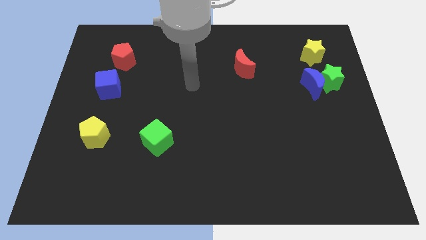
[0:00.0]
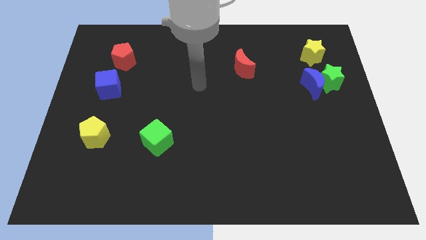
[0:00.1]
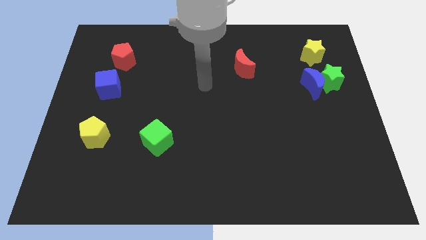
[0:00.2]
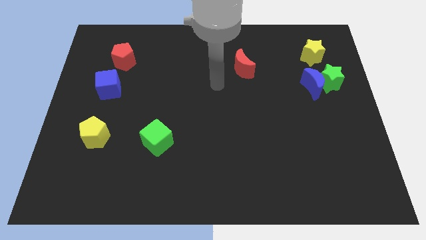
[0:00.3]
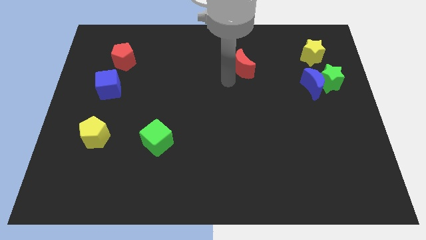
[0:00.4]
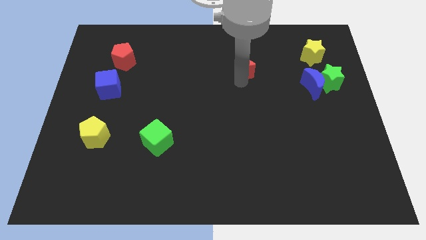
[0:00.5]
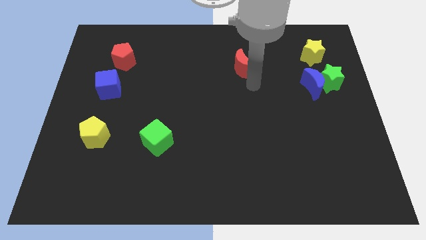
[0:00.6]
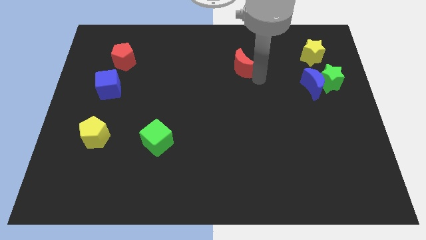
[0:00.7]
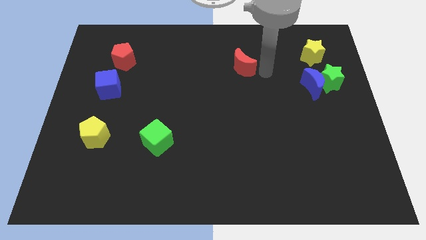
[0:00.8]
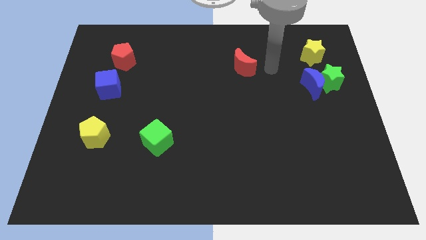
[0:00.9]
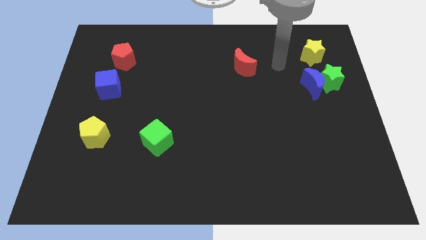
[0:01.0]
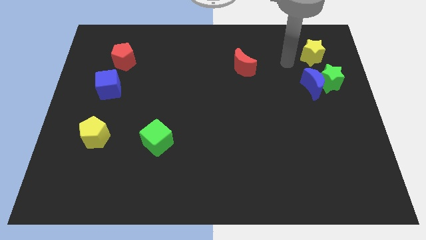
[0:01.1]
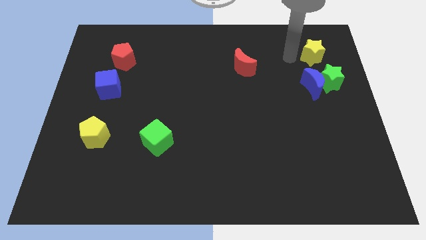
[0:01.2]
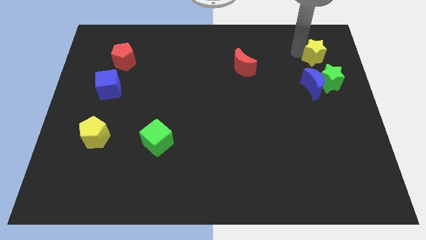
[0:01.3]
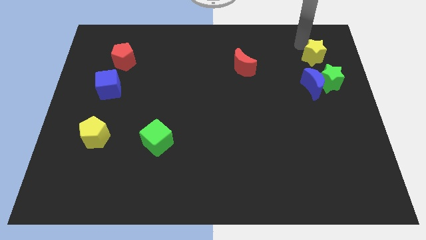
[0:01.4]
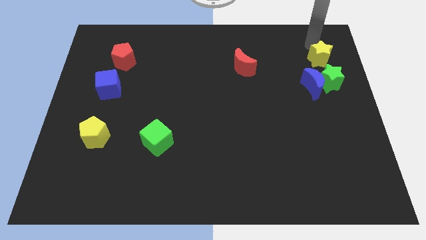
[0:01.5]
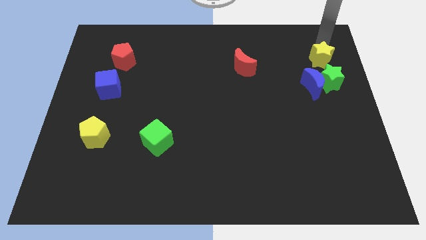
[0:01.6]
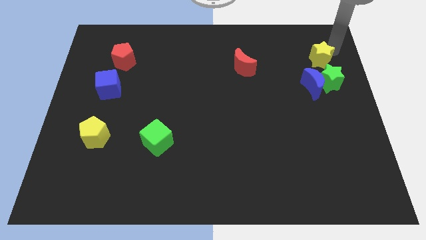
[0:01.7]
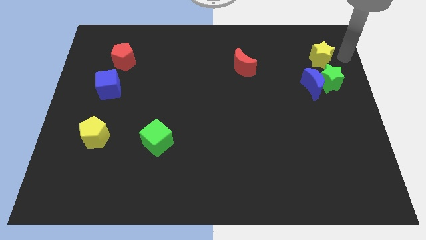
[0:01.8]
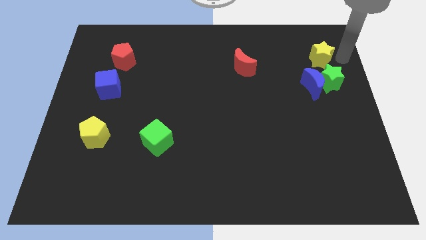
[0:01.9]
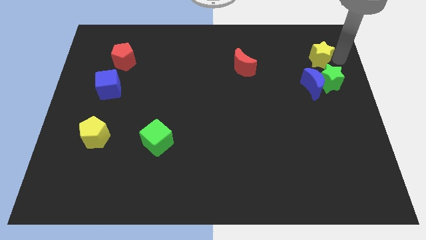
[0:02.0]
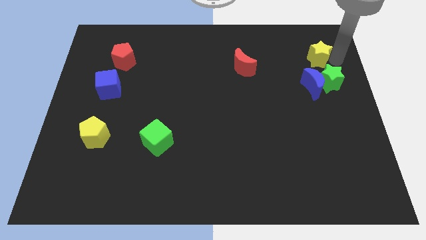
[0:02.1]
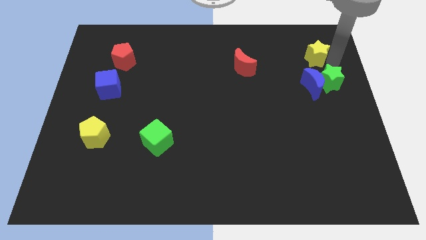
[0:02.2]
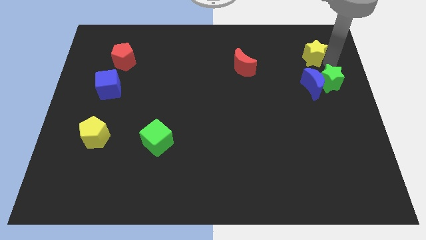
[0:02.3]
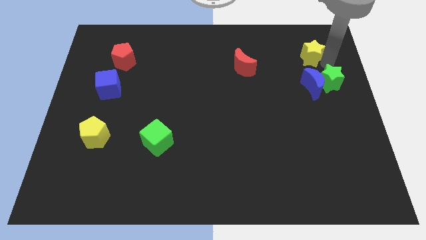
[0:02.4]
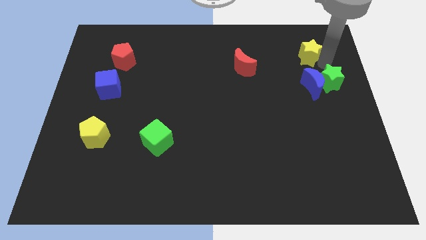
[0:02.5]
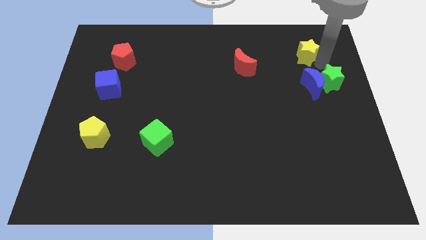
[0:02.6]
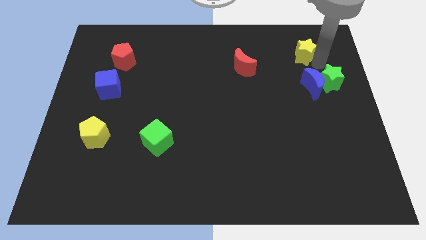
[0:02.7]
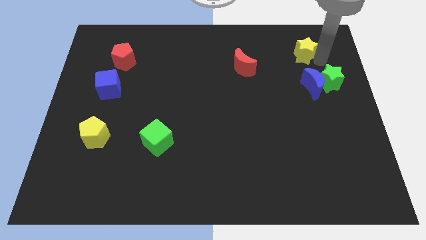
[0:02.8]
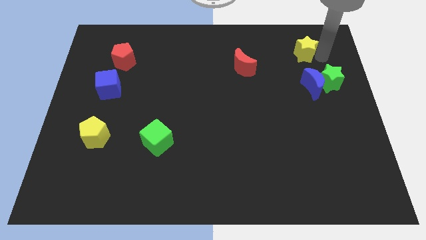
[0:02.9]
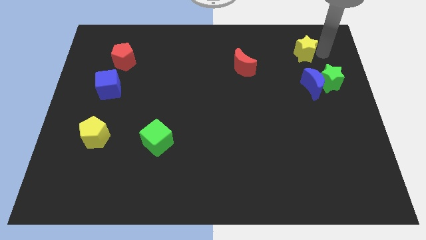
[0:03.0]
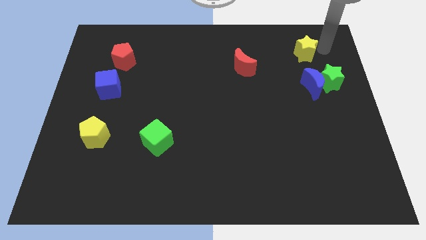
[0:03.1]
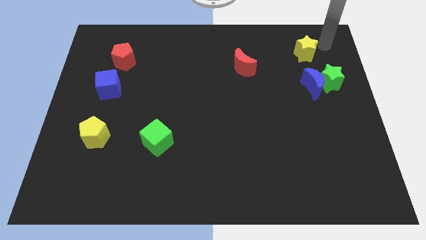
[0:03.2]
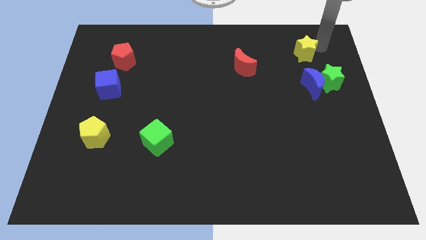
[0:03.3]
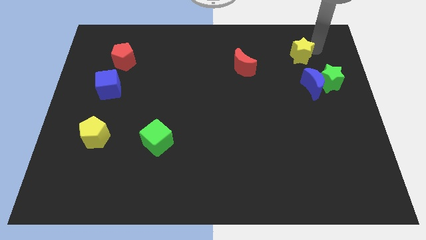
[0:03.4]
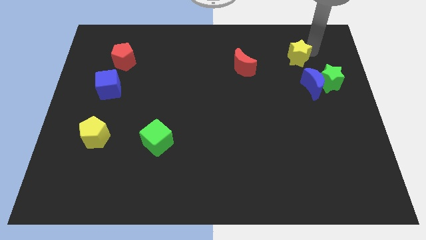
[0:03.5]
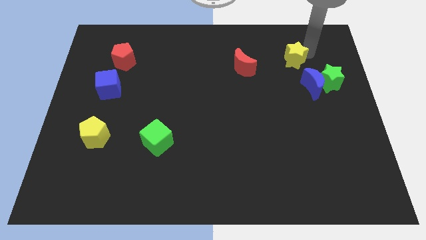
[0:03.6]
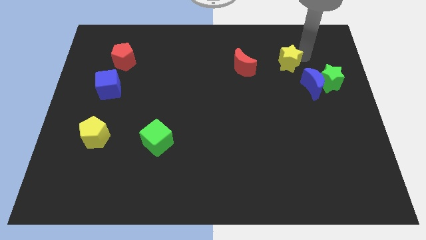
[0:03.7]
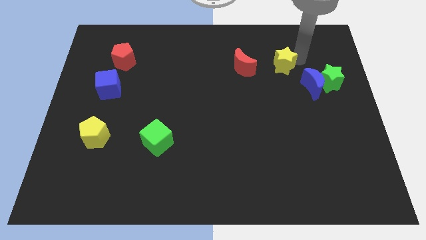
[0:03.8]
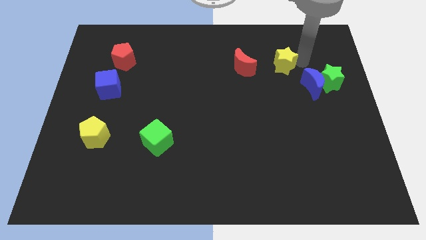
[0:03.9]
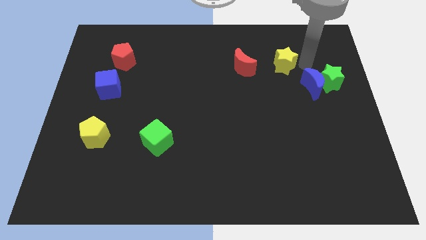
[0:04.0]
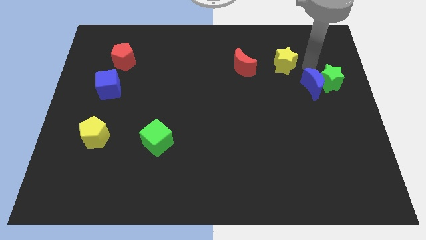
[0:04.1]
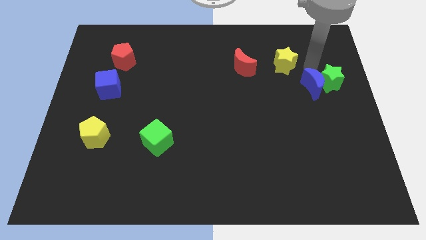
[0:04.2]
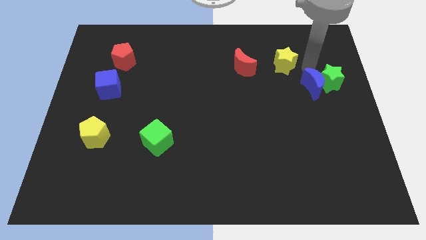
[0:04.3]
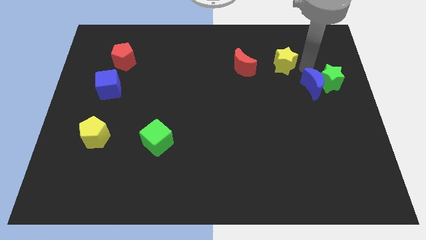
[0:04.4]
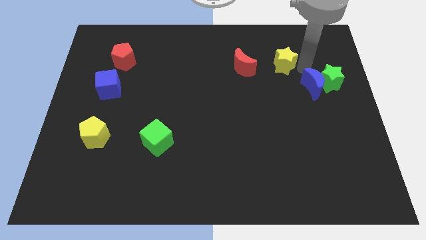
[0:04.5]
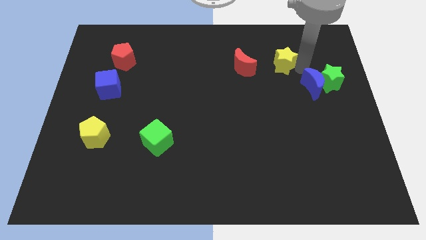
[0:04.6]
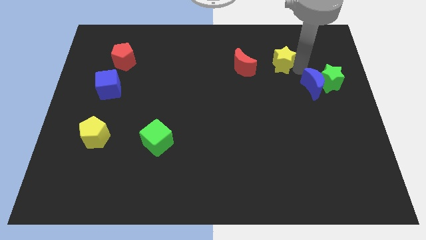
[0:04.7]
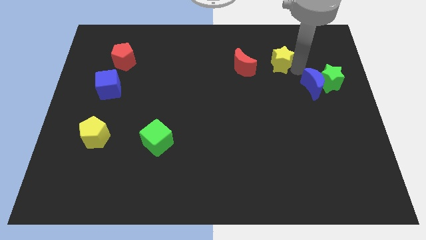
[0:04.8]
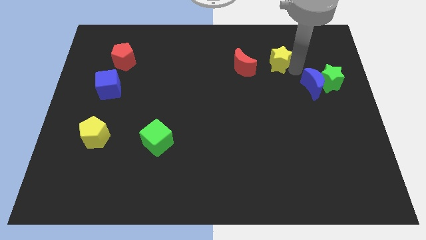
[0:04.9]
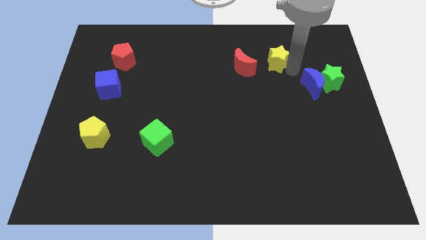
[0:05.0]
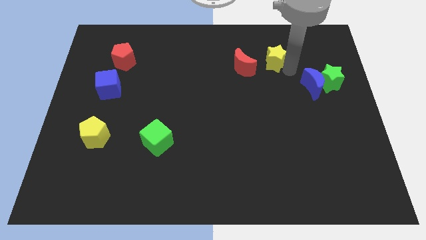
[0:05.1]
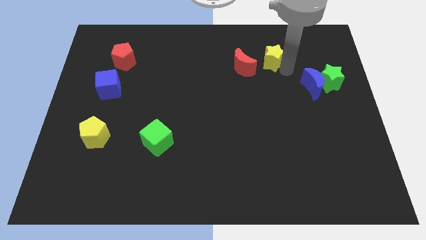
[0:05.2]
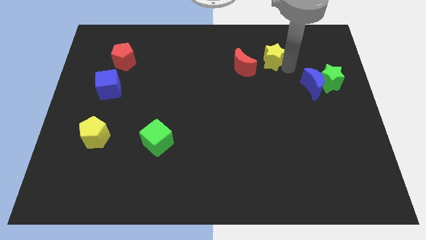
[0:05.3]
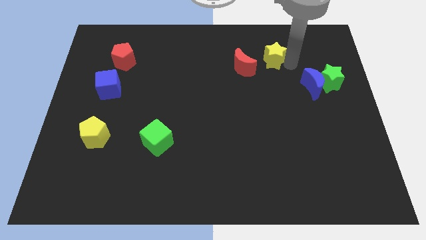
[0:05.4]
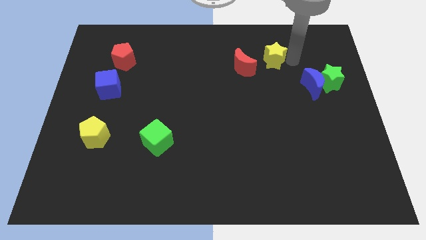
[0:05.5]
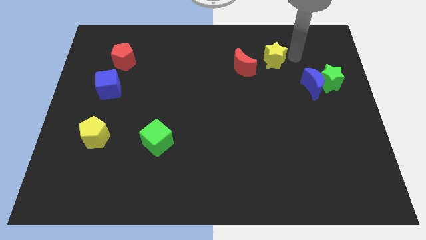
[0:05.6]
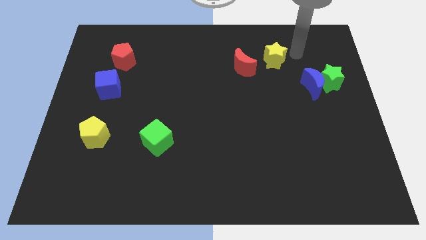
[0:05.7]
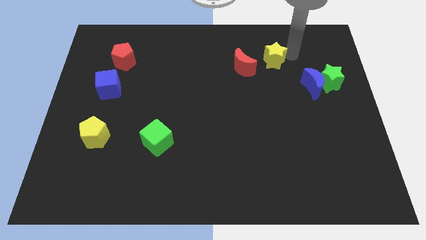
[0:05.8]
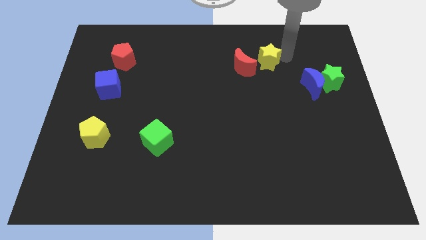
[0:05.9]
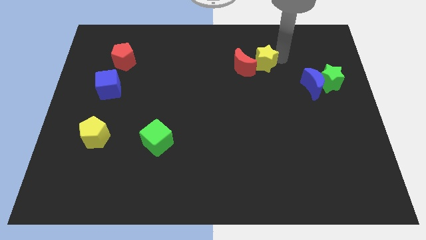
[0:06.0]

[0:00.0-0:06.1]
move the yellow star next to the red moon

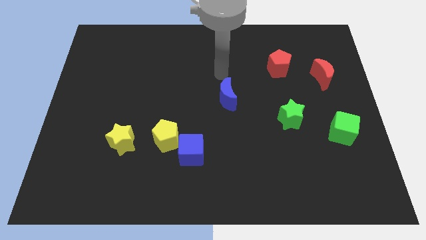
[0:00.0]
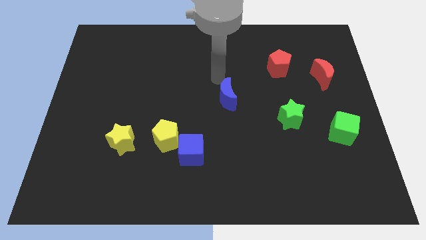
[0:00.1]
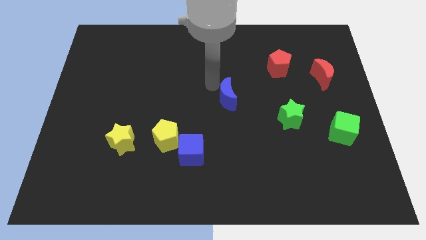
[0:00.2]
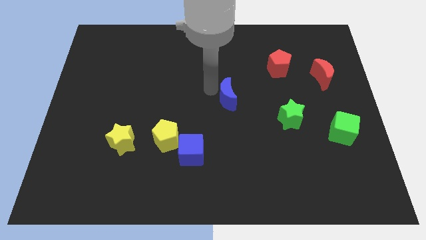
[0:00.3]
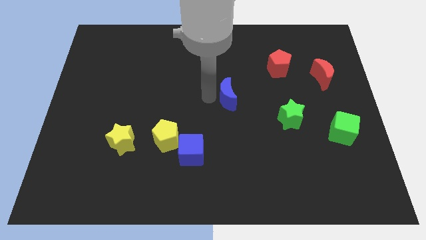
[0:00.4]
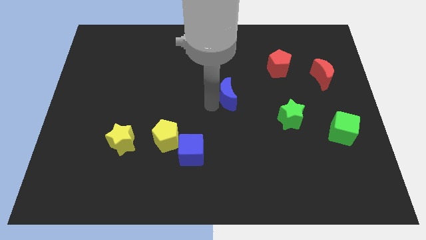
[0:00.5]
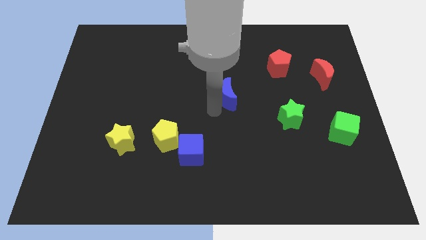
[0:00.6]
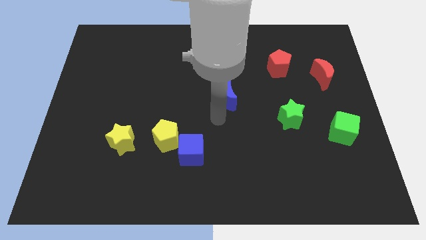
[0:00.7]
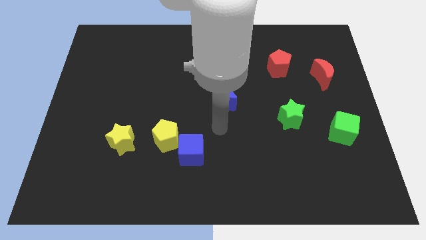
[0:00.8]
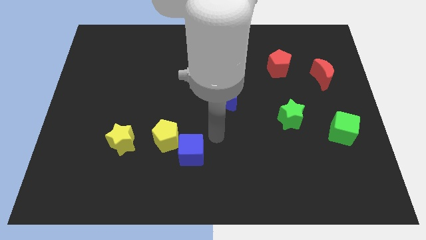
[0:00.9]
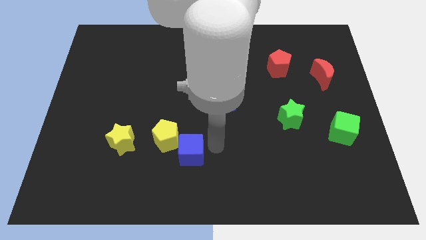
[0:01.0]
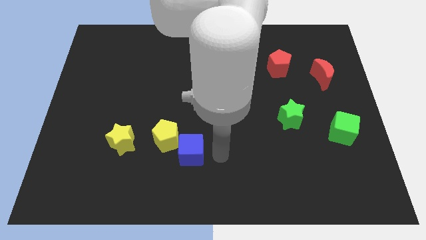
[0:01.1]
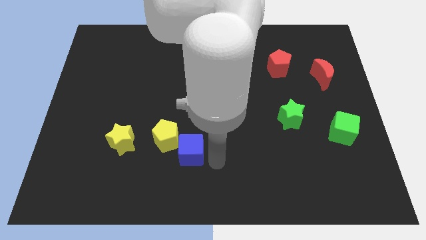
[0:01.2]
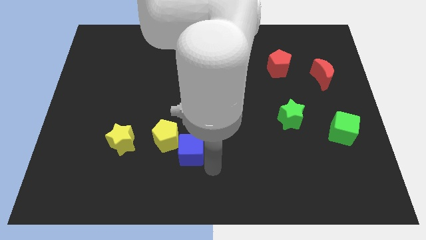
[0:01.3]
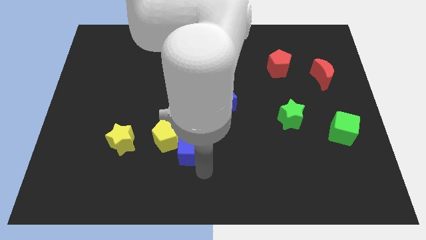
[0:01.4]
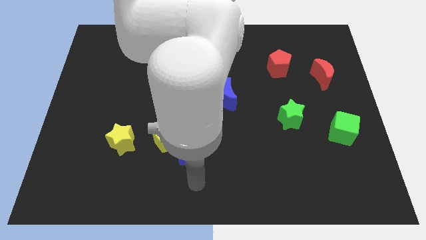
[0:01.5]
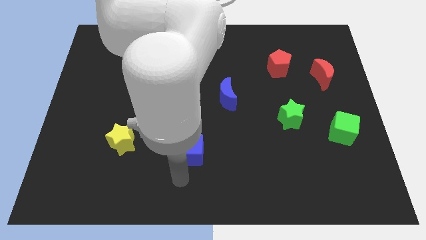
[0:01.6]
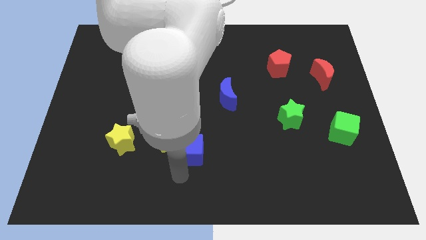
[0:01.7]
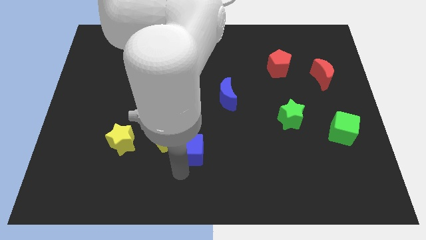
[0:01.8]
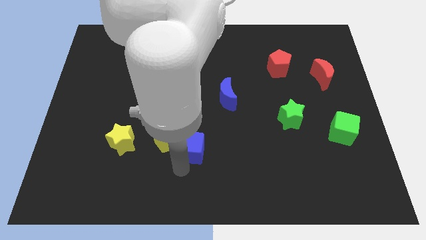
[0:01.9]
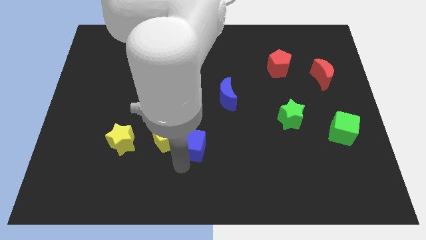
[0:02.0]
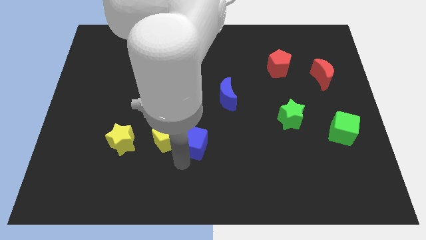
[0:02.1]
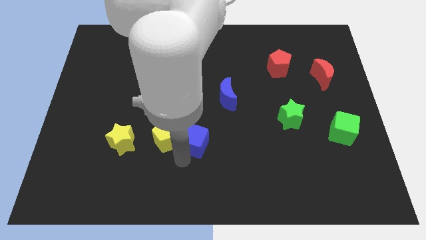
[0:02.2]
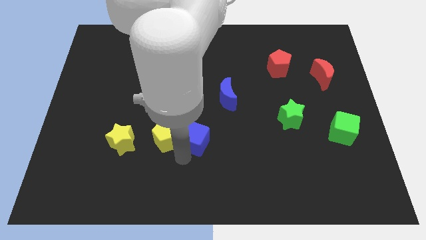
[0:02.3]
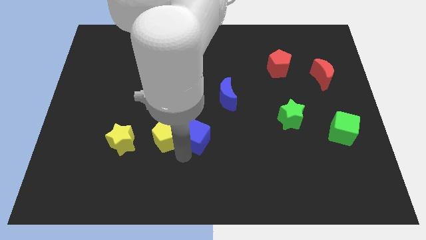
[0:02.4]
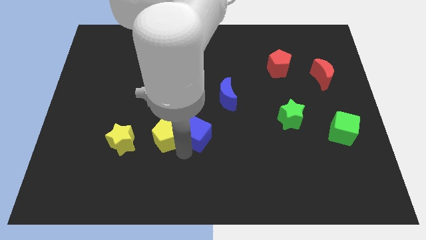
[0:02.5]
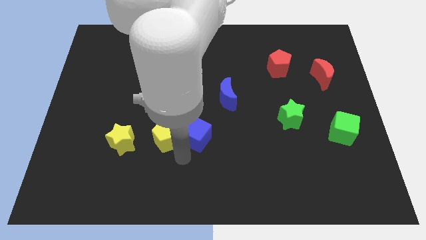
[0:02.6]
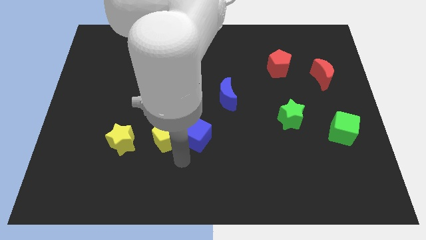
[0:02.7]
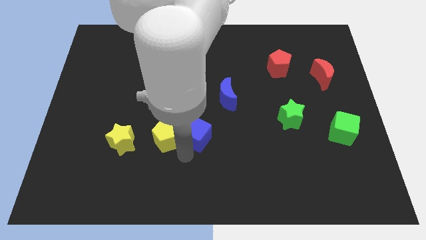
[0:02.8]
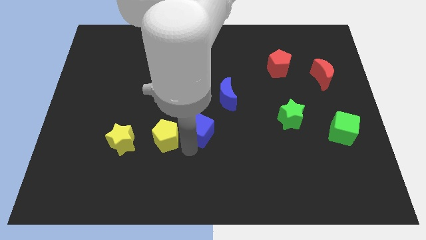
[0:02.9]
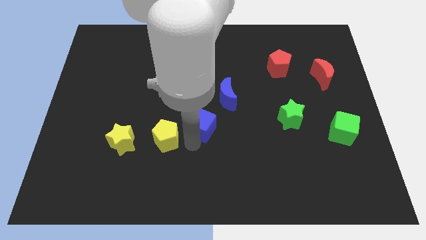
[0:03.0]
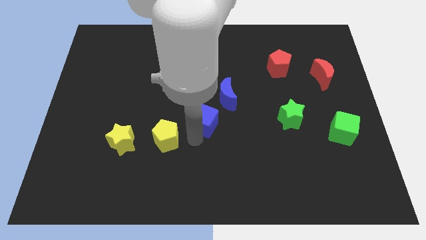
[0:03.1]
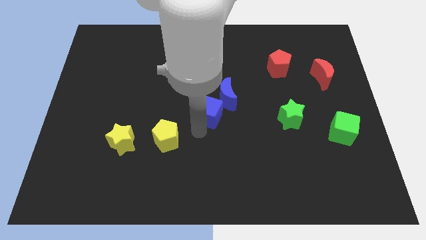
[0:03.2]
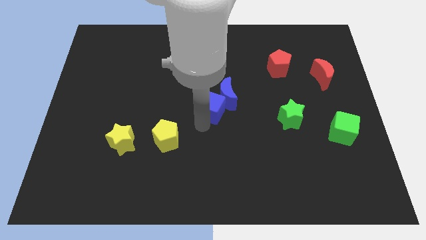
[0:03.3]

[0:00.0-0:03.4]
move the blue cube to the blue moon
